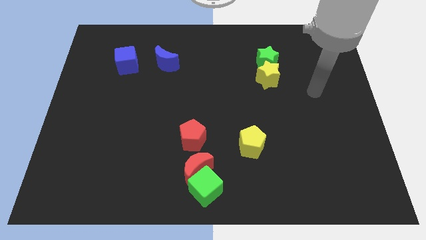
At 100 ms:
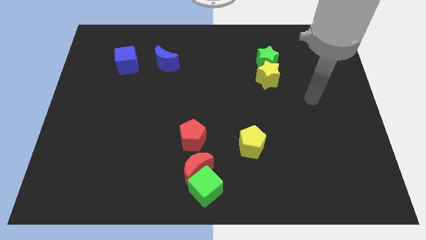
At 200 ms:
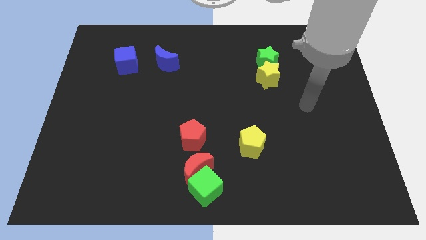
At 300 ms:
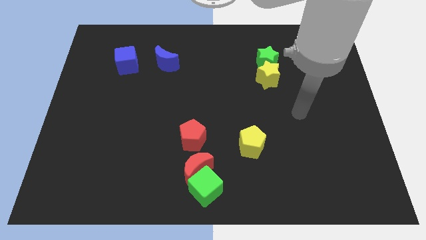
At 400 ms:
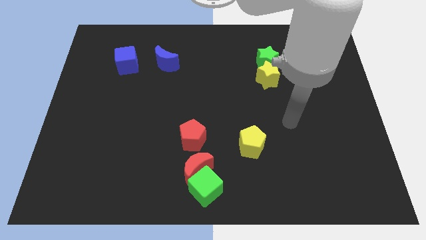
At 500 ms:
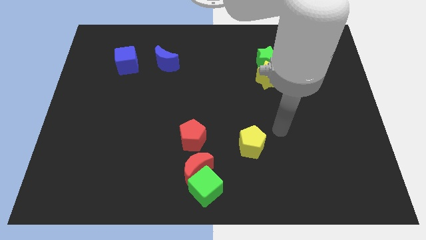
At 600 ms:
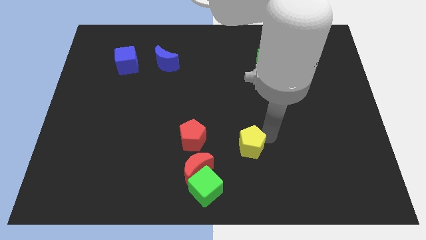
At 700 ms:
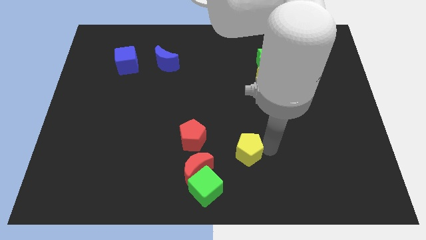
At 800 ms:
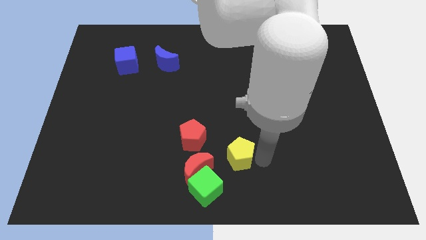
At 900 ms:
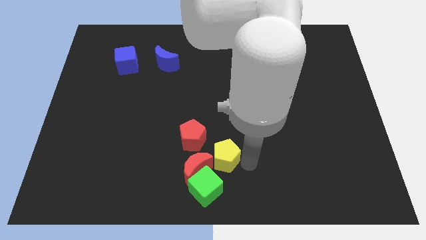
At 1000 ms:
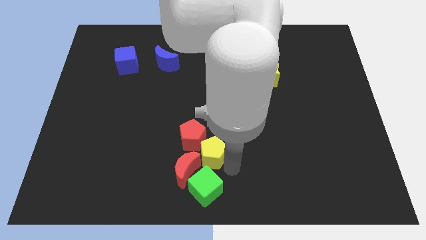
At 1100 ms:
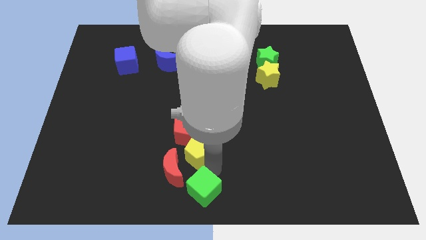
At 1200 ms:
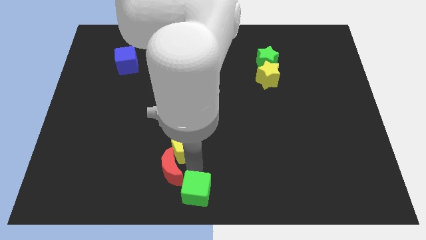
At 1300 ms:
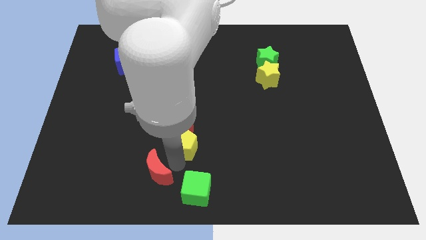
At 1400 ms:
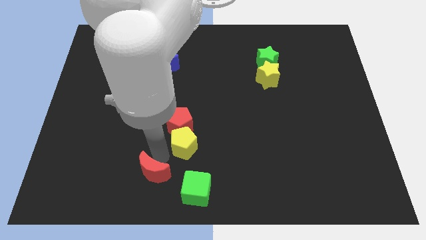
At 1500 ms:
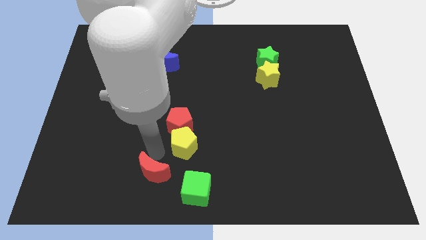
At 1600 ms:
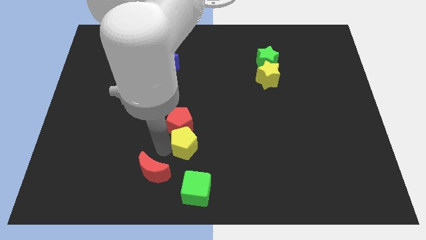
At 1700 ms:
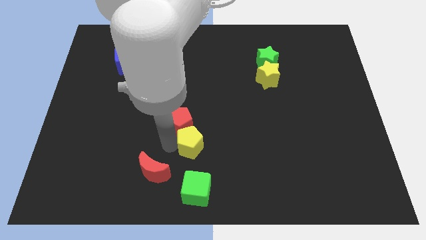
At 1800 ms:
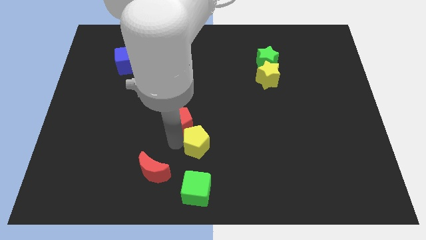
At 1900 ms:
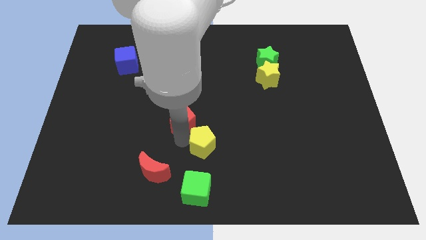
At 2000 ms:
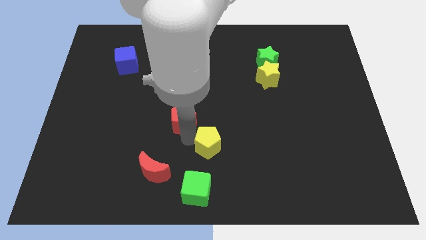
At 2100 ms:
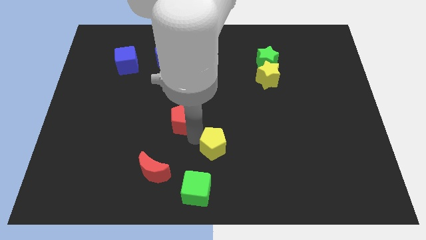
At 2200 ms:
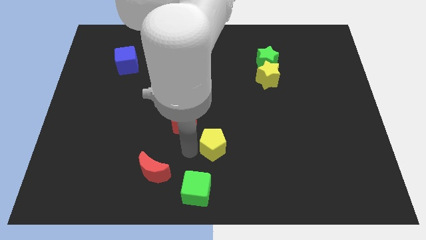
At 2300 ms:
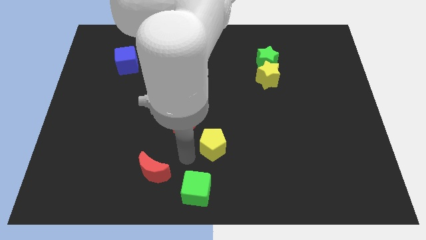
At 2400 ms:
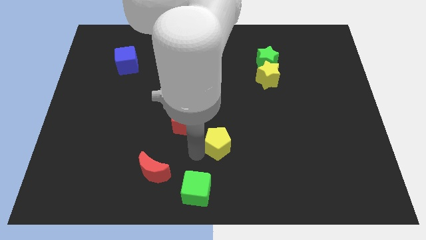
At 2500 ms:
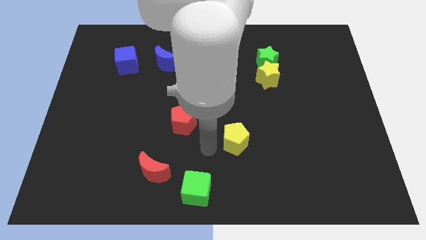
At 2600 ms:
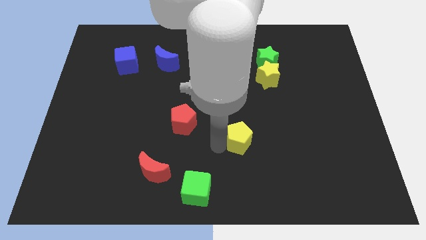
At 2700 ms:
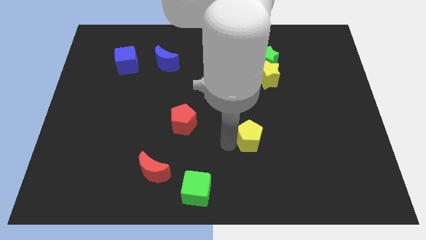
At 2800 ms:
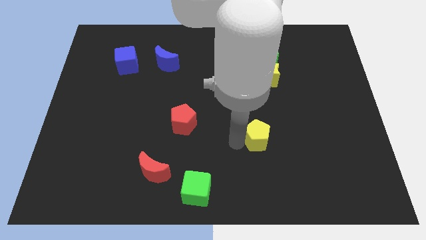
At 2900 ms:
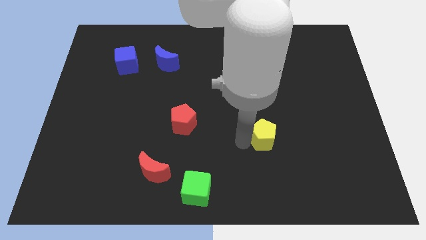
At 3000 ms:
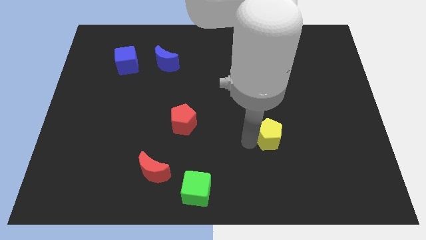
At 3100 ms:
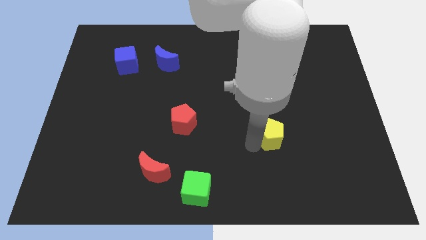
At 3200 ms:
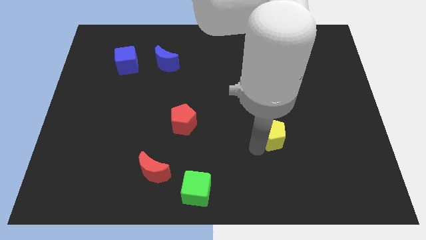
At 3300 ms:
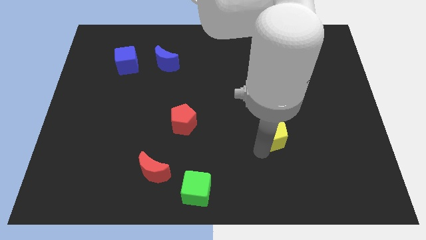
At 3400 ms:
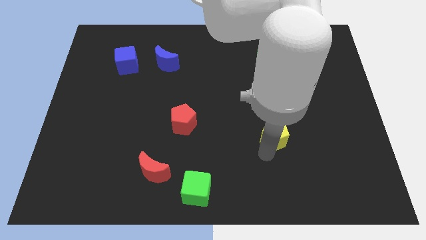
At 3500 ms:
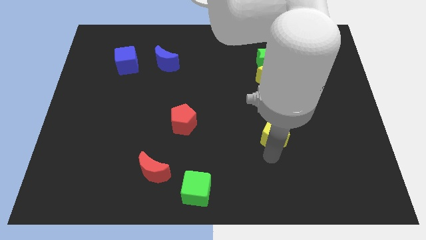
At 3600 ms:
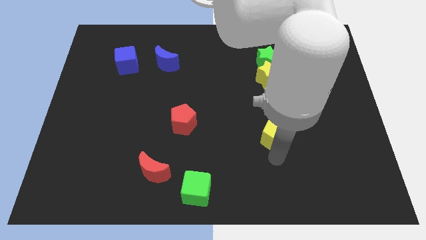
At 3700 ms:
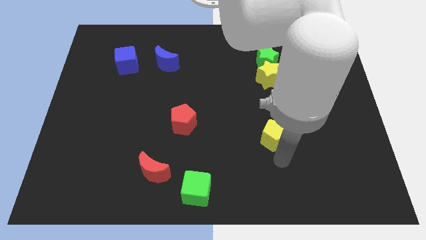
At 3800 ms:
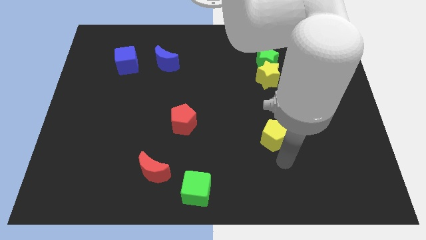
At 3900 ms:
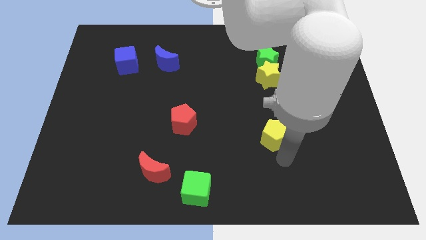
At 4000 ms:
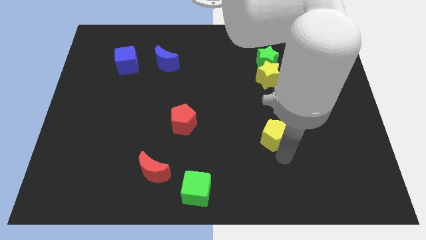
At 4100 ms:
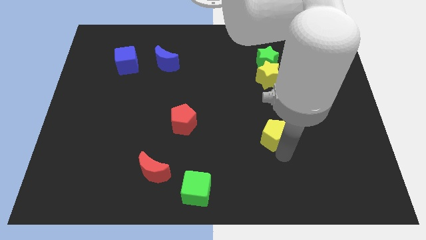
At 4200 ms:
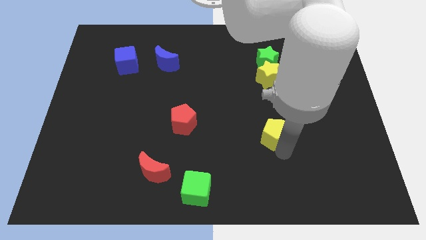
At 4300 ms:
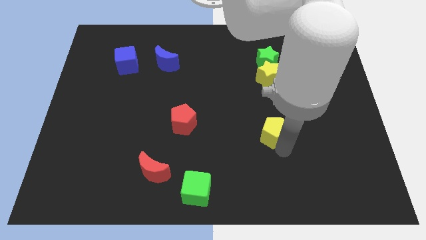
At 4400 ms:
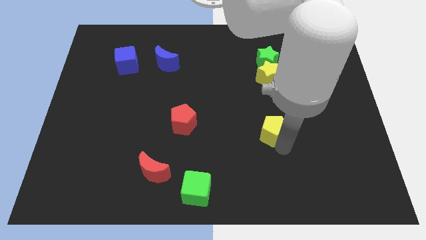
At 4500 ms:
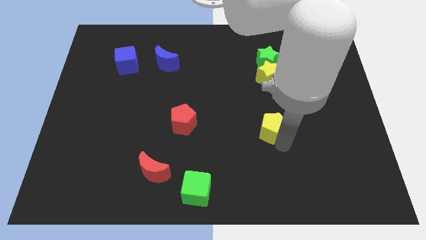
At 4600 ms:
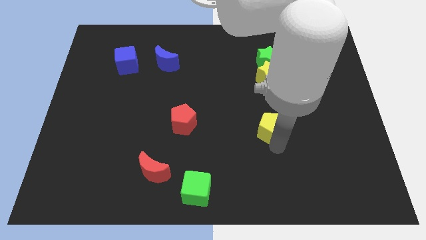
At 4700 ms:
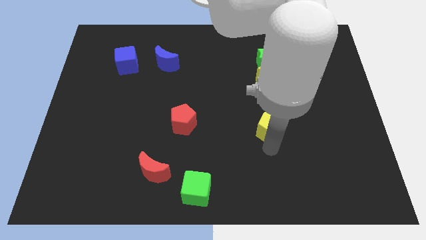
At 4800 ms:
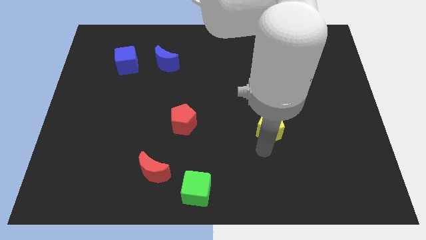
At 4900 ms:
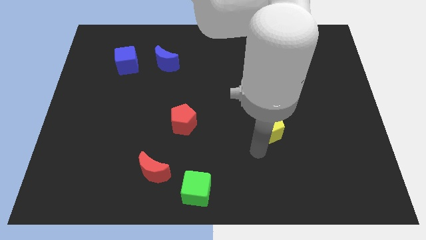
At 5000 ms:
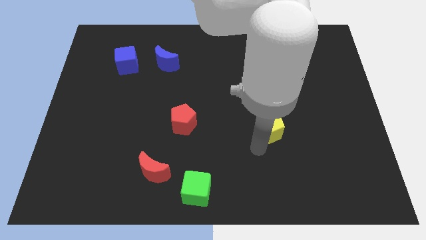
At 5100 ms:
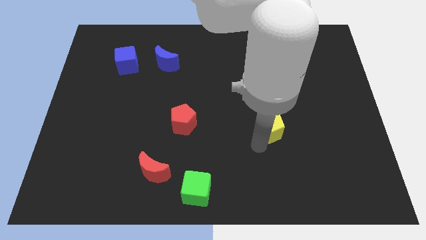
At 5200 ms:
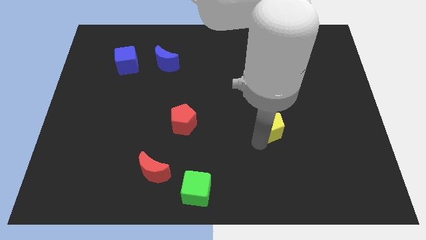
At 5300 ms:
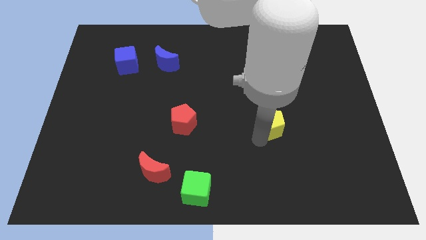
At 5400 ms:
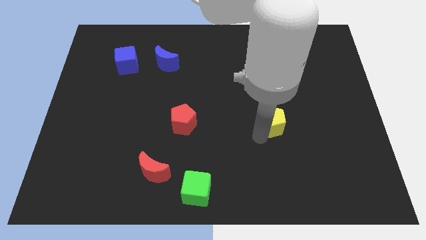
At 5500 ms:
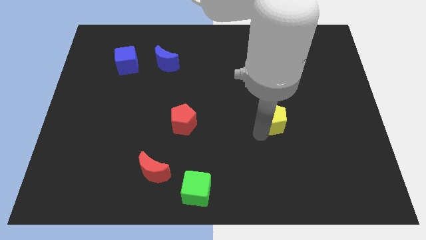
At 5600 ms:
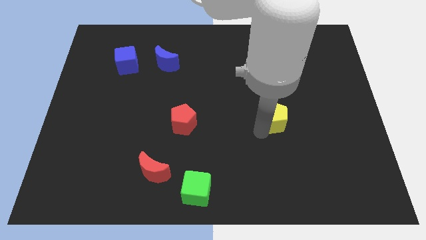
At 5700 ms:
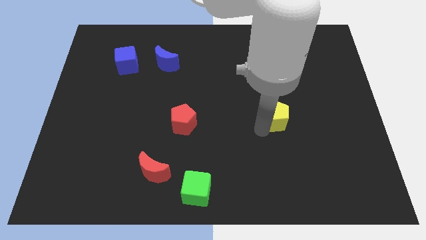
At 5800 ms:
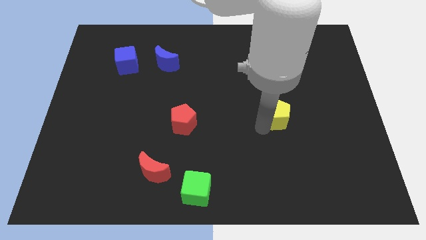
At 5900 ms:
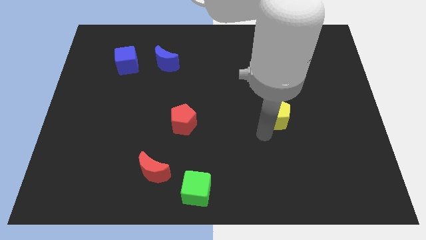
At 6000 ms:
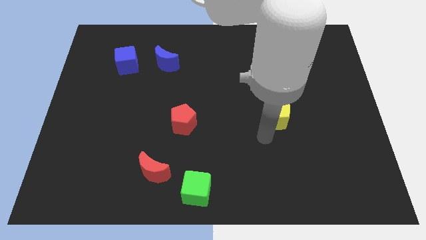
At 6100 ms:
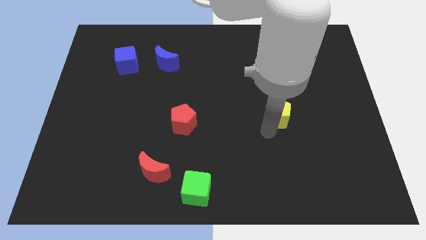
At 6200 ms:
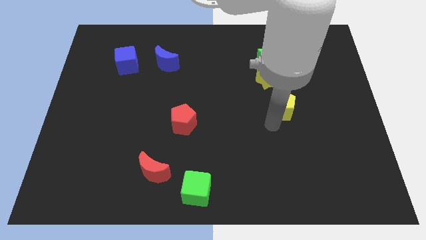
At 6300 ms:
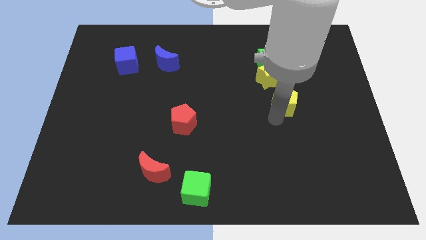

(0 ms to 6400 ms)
push the yellow pentagon diagonally down and to the right of the yellow star

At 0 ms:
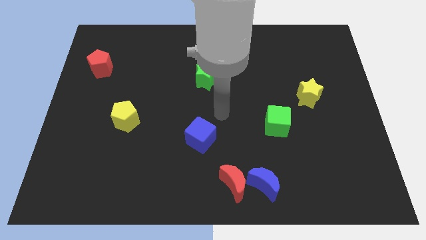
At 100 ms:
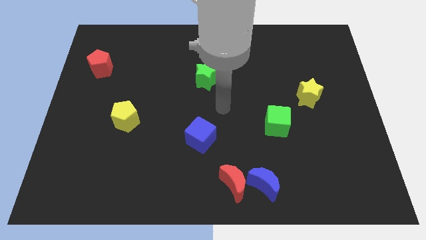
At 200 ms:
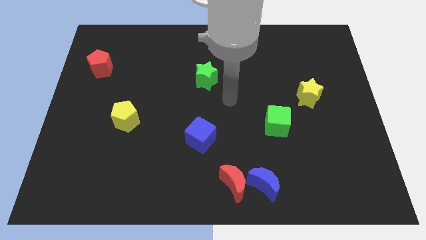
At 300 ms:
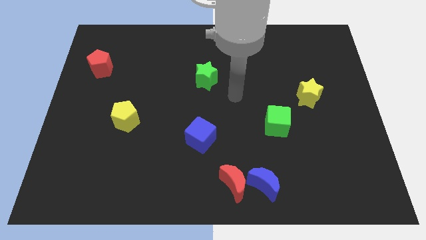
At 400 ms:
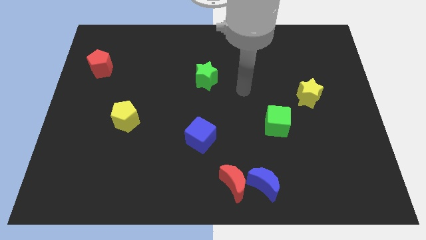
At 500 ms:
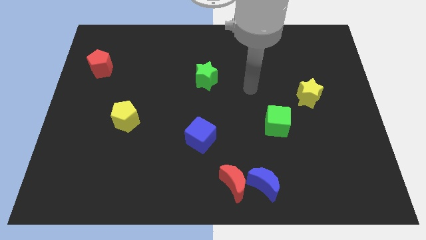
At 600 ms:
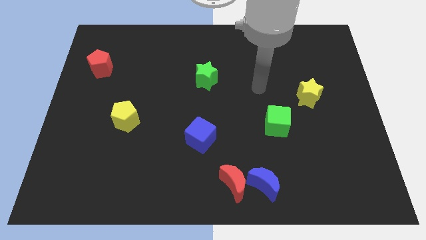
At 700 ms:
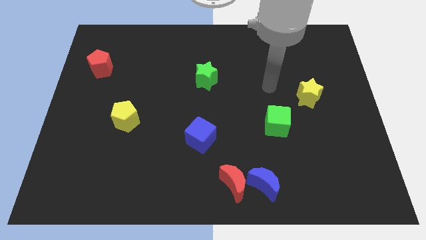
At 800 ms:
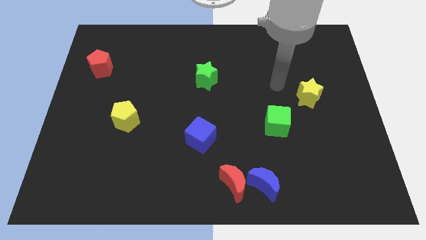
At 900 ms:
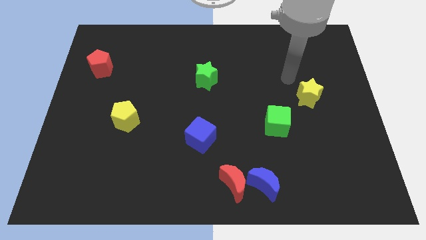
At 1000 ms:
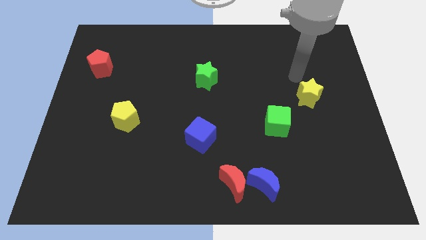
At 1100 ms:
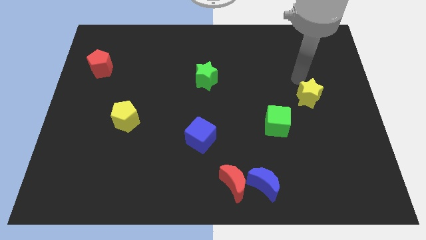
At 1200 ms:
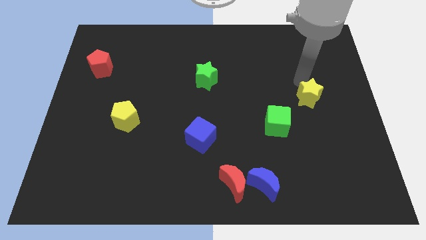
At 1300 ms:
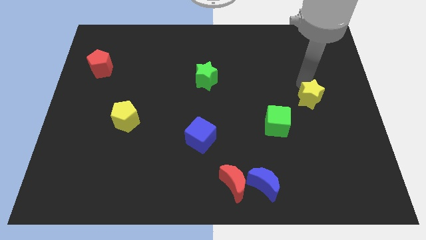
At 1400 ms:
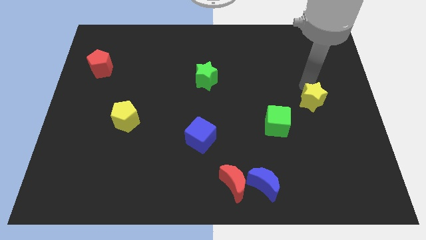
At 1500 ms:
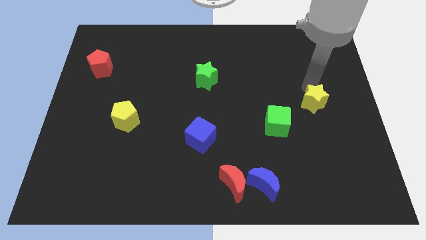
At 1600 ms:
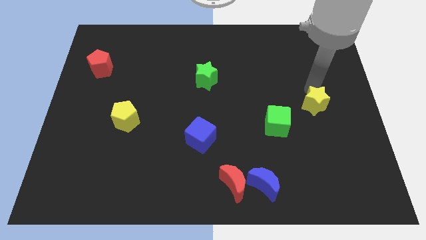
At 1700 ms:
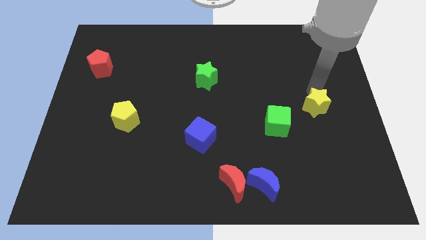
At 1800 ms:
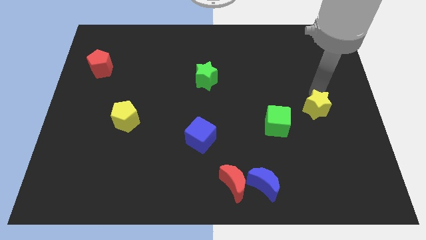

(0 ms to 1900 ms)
move the yellow star just right of the green cube
